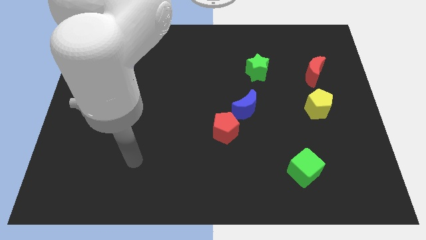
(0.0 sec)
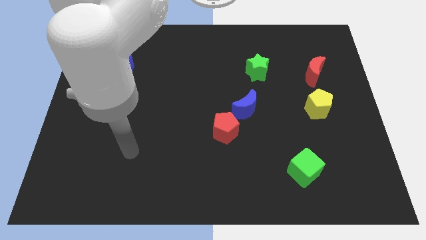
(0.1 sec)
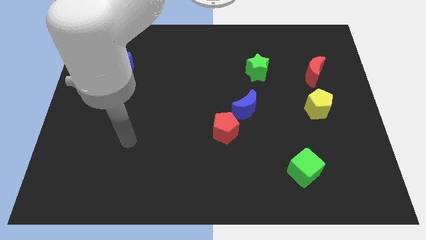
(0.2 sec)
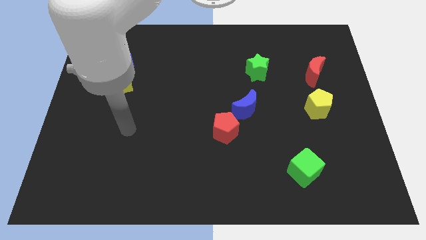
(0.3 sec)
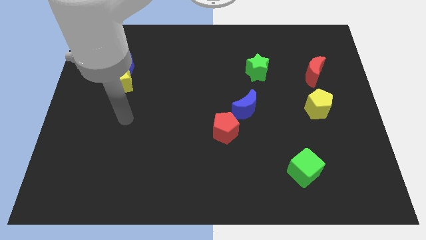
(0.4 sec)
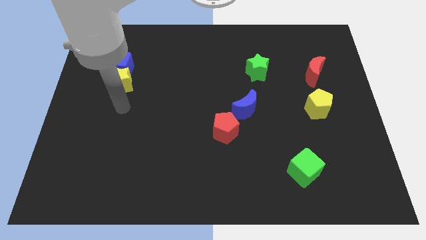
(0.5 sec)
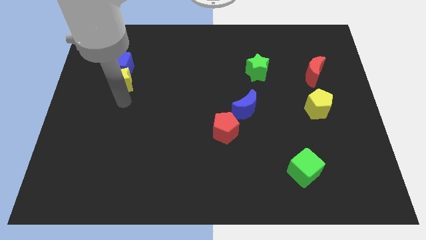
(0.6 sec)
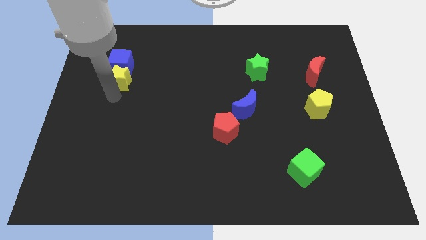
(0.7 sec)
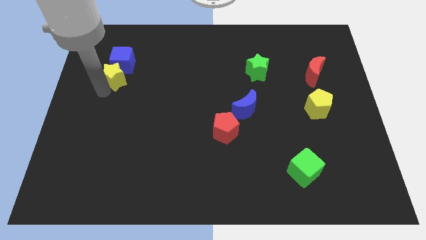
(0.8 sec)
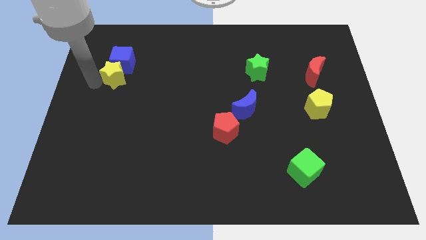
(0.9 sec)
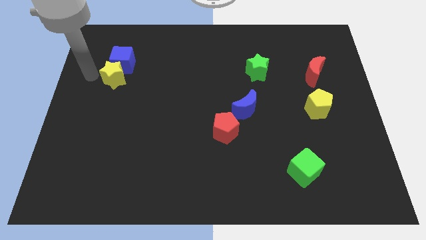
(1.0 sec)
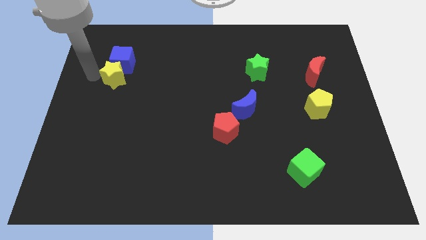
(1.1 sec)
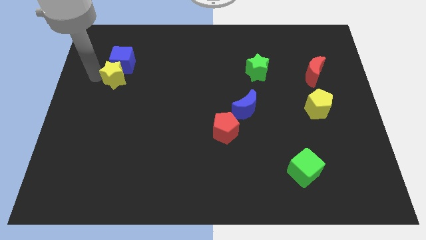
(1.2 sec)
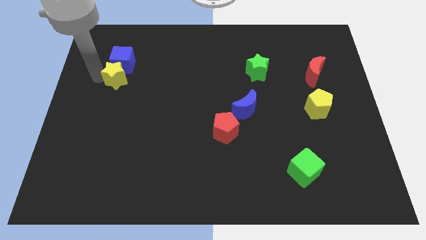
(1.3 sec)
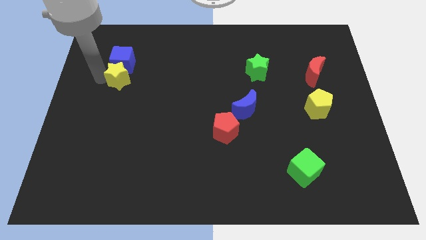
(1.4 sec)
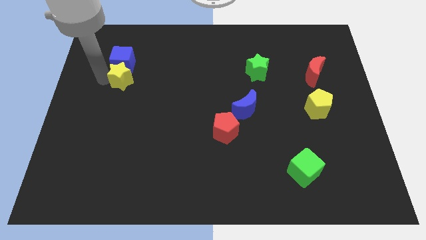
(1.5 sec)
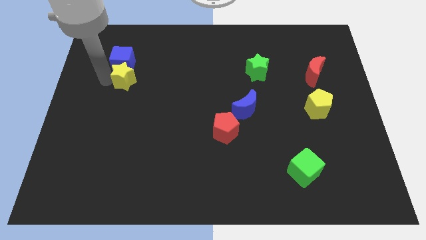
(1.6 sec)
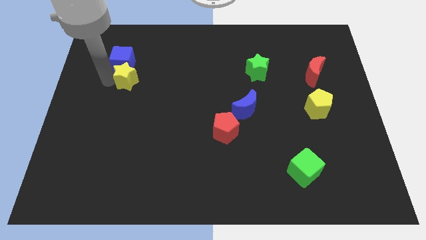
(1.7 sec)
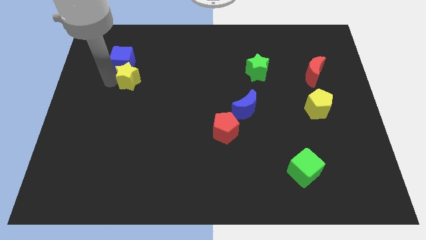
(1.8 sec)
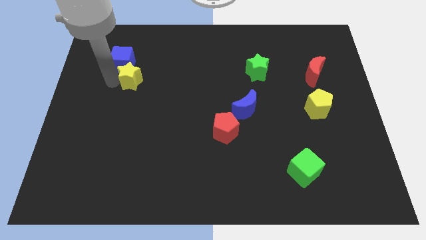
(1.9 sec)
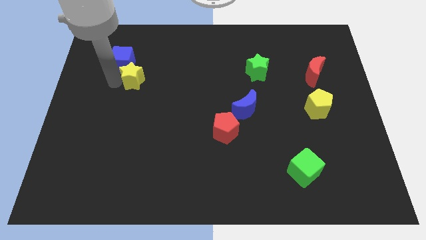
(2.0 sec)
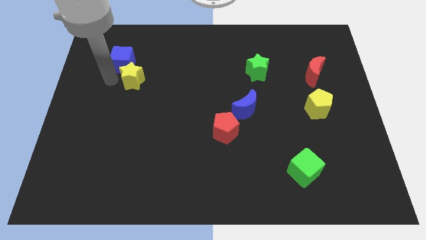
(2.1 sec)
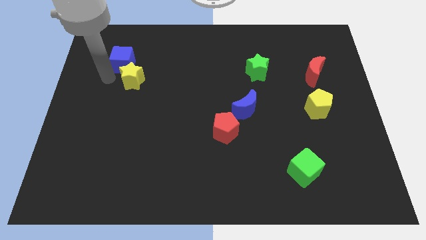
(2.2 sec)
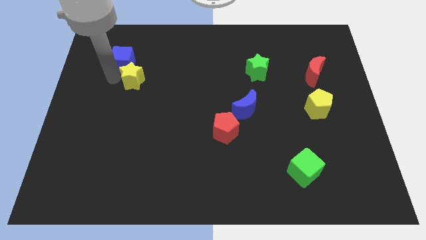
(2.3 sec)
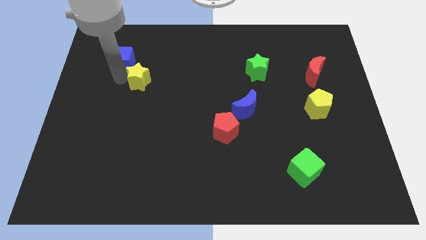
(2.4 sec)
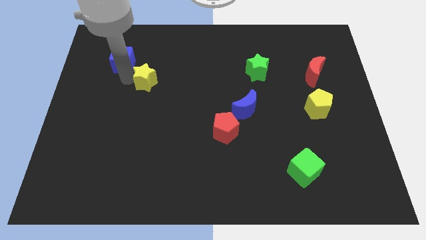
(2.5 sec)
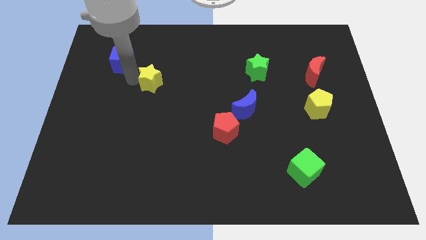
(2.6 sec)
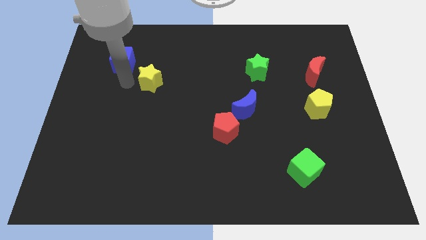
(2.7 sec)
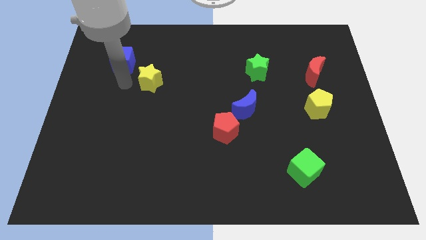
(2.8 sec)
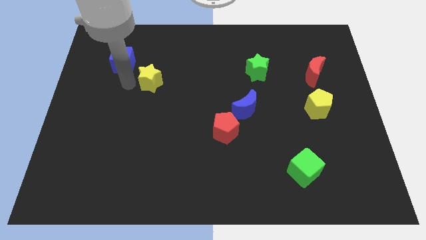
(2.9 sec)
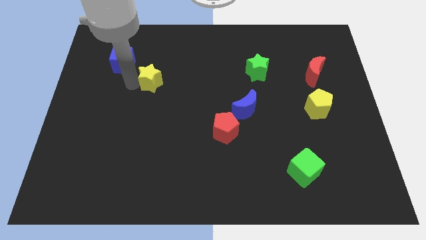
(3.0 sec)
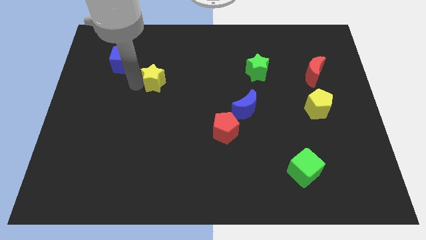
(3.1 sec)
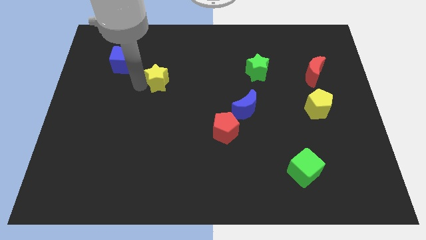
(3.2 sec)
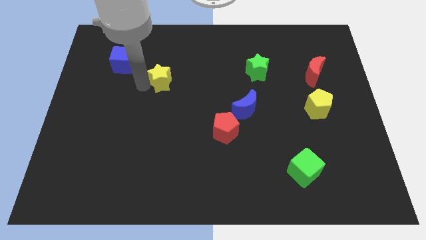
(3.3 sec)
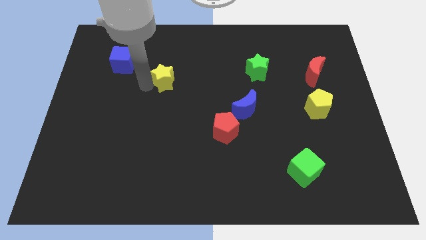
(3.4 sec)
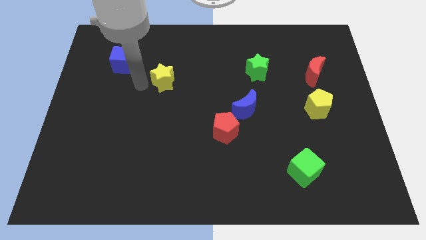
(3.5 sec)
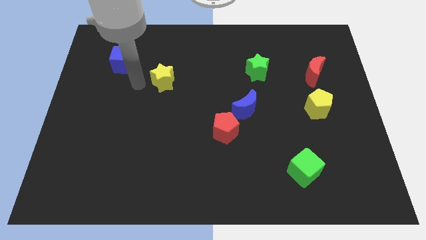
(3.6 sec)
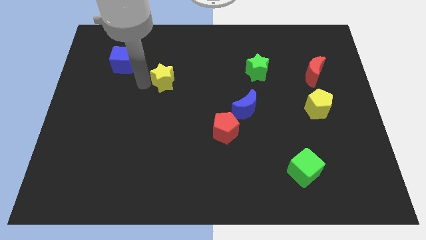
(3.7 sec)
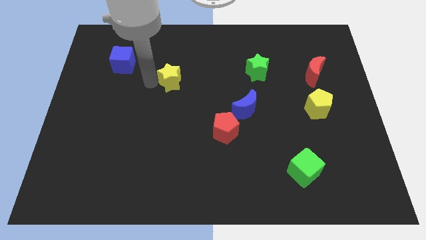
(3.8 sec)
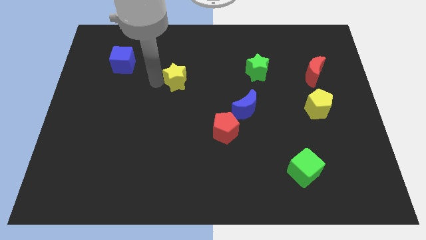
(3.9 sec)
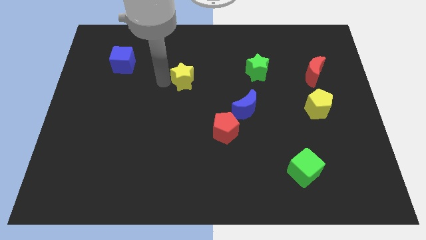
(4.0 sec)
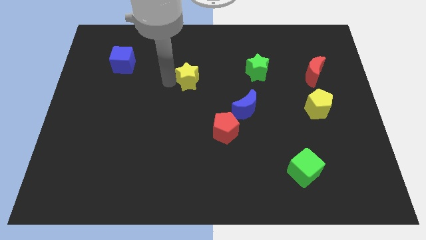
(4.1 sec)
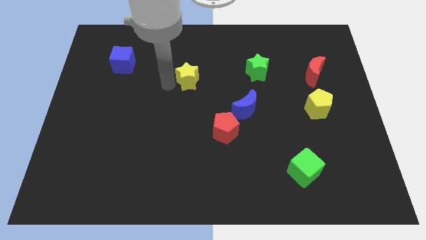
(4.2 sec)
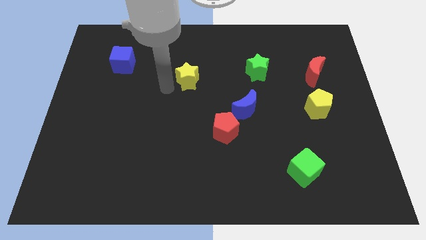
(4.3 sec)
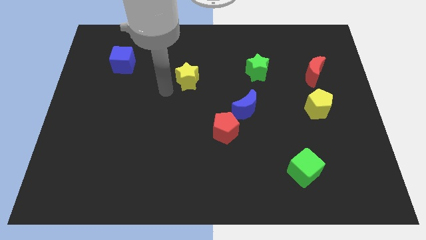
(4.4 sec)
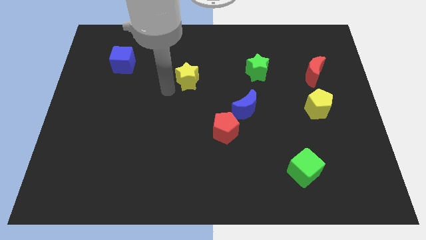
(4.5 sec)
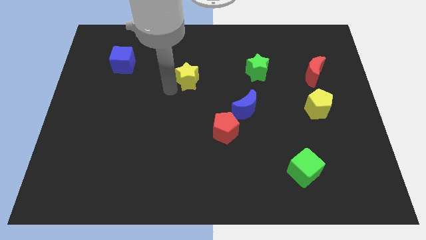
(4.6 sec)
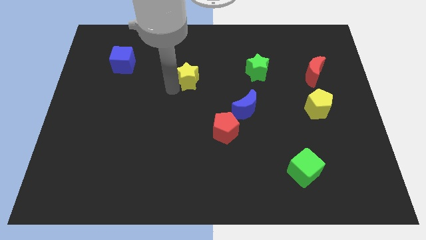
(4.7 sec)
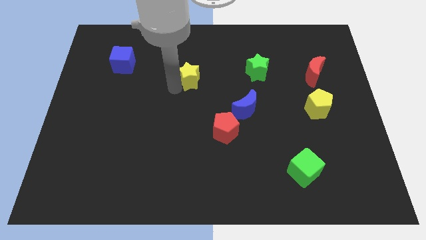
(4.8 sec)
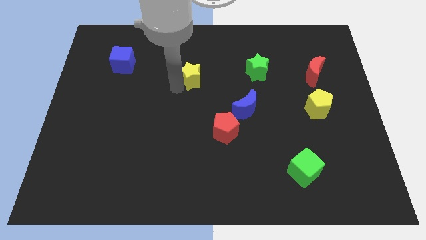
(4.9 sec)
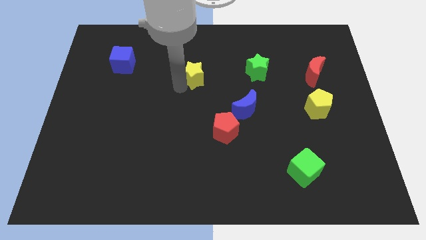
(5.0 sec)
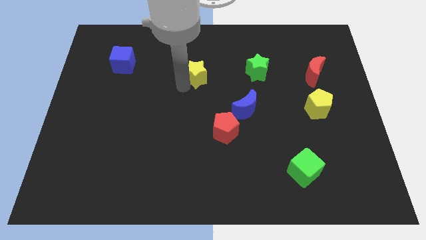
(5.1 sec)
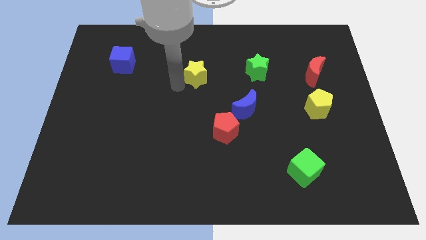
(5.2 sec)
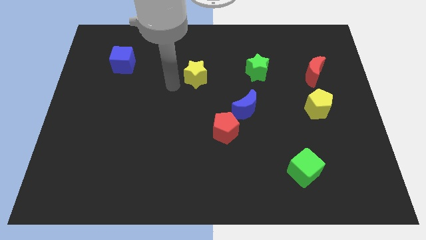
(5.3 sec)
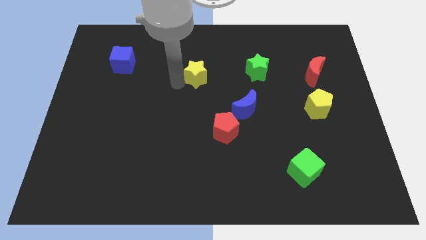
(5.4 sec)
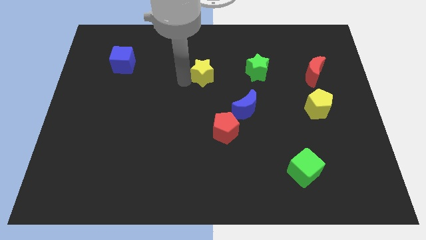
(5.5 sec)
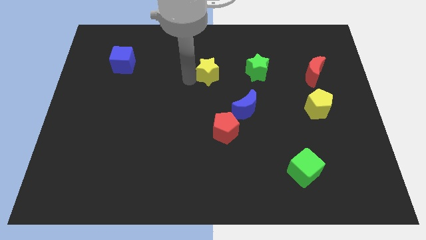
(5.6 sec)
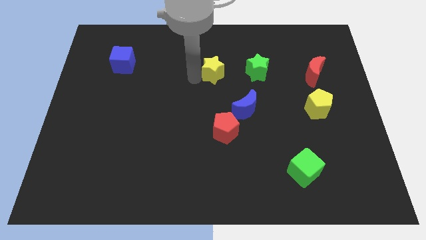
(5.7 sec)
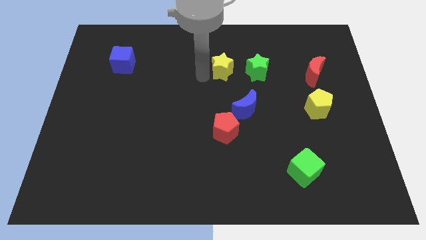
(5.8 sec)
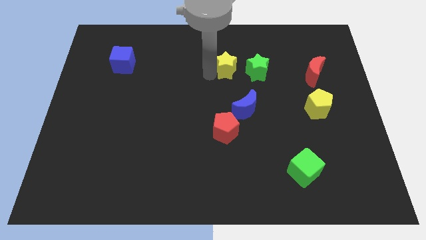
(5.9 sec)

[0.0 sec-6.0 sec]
put the yellow star diagonally up and to the left of the green star
